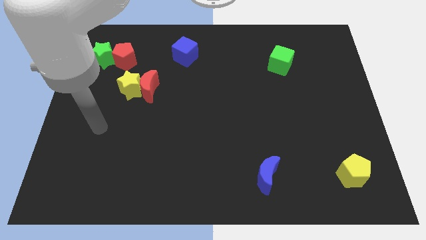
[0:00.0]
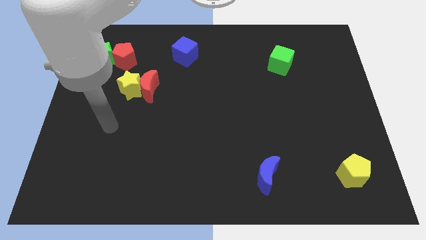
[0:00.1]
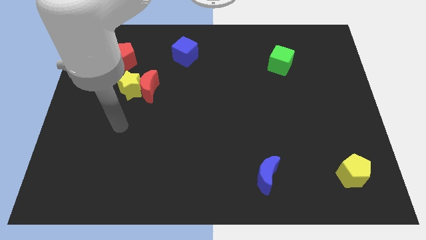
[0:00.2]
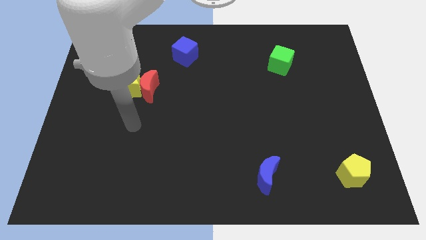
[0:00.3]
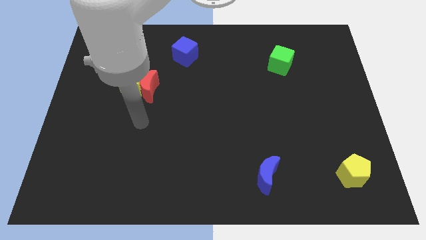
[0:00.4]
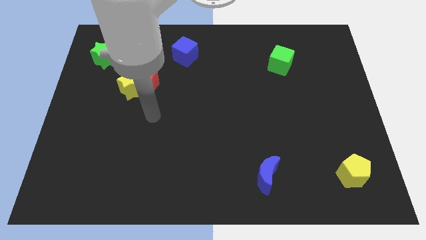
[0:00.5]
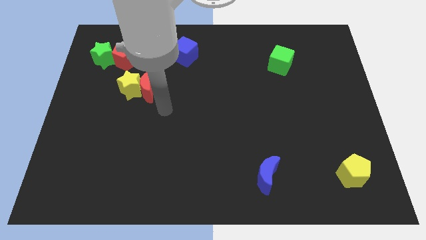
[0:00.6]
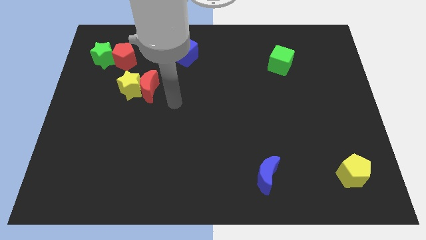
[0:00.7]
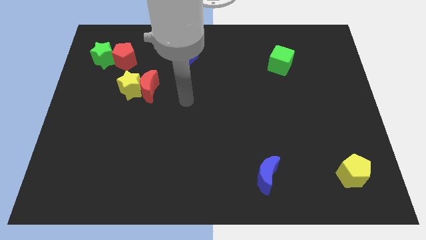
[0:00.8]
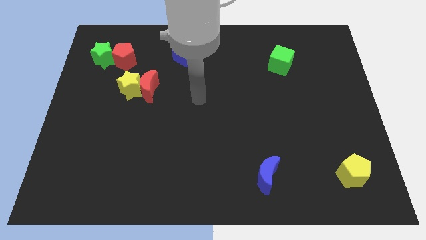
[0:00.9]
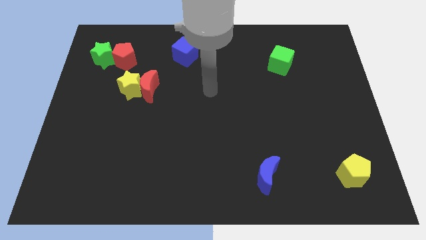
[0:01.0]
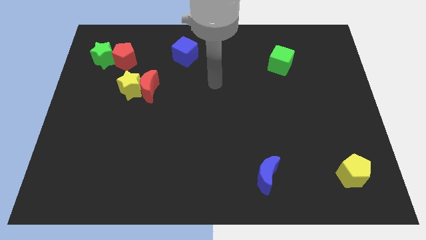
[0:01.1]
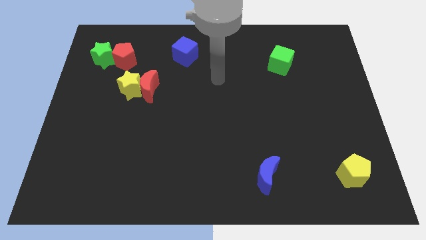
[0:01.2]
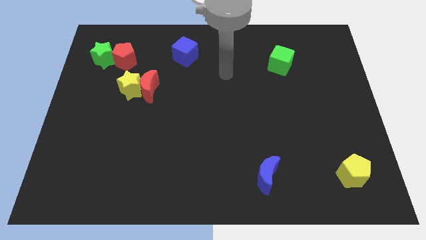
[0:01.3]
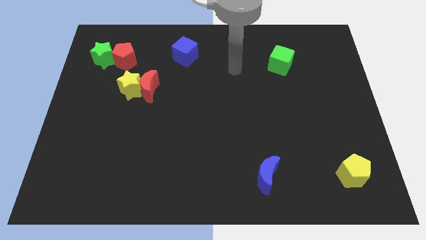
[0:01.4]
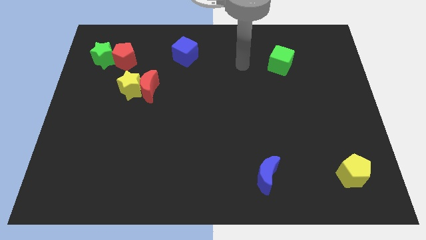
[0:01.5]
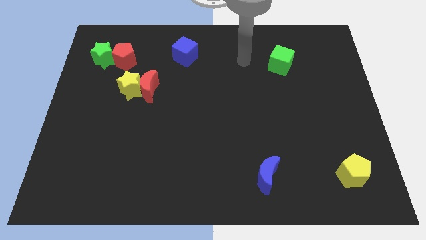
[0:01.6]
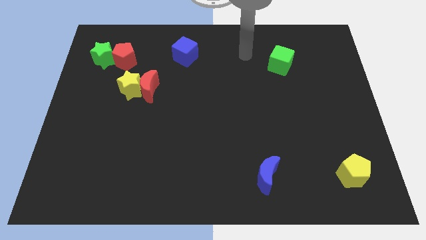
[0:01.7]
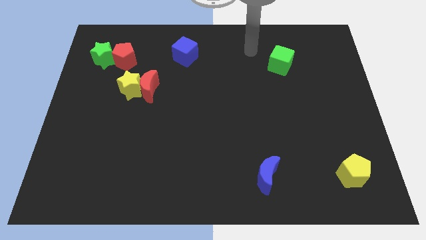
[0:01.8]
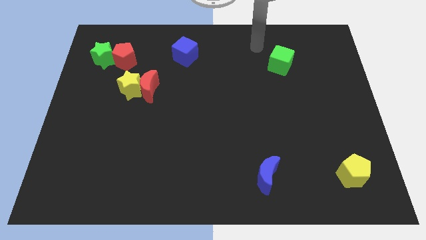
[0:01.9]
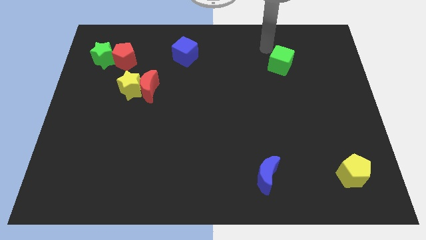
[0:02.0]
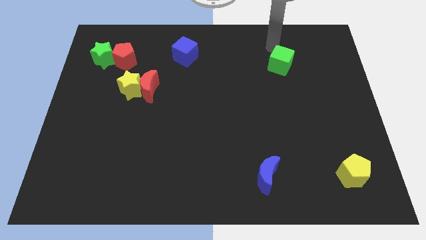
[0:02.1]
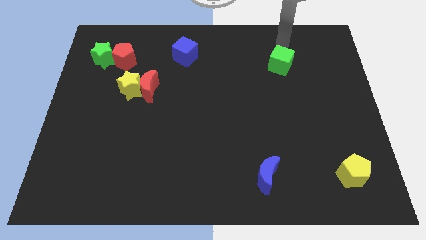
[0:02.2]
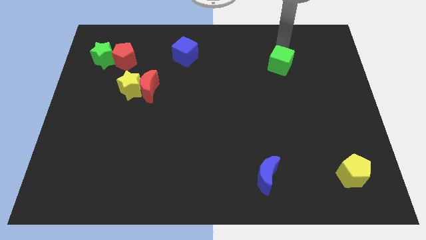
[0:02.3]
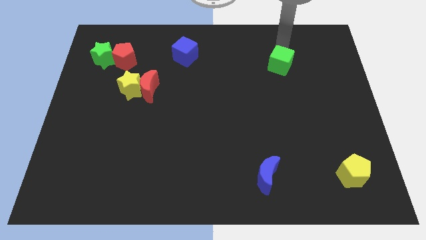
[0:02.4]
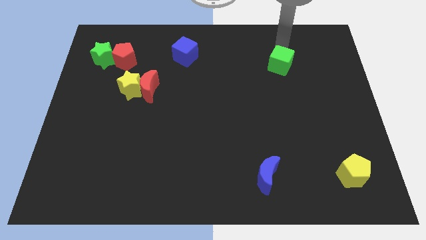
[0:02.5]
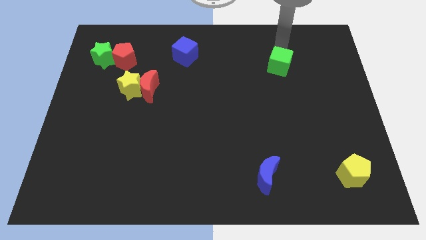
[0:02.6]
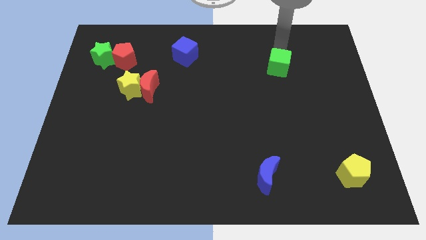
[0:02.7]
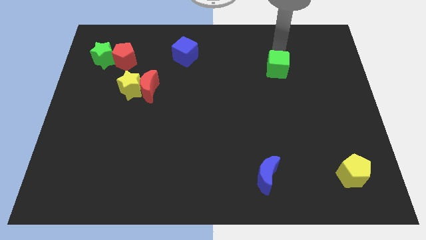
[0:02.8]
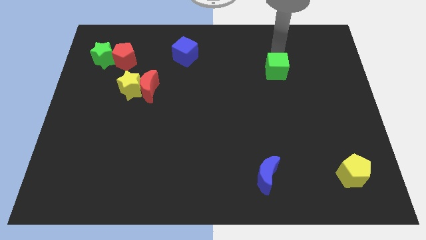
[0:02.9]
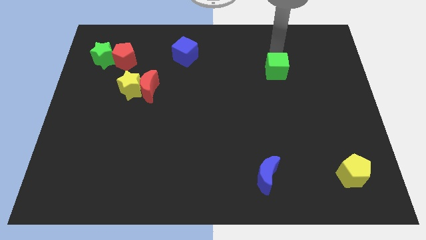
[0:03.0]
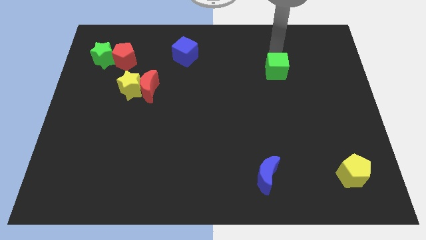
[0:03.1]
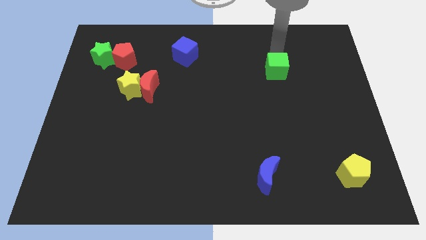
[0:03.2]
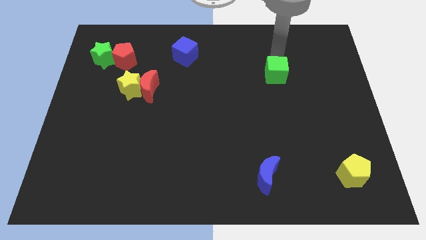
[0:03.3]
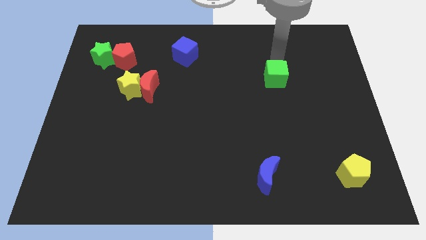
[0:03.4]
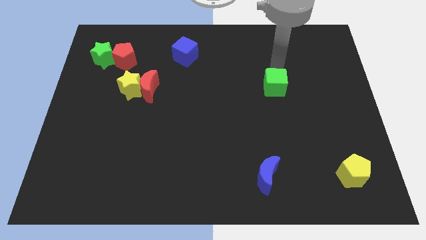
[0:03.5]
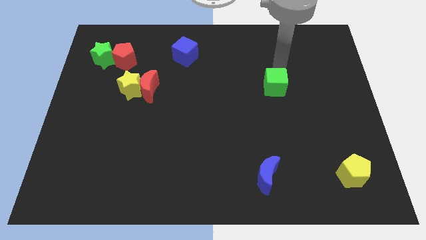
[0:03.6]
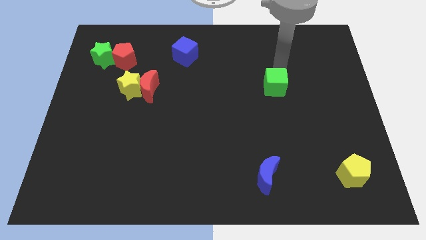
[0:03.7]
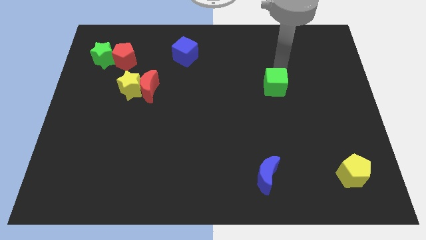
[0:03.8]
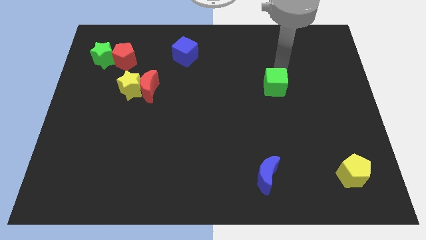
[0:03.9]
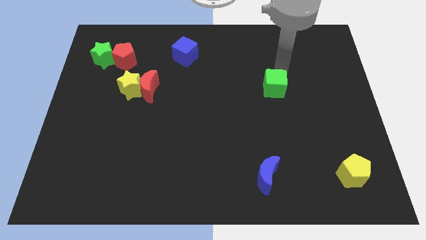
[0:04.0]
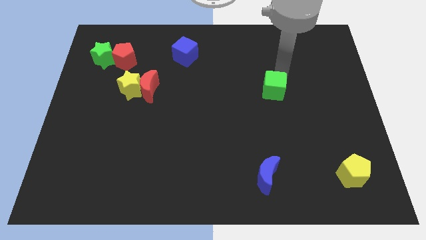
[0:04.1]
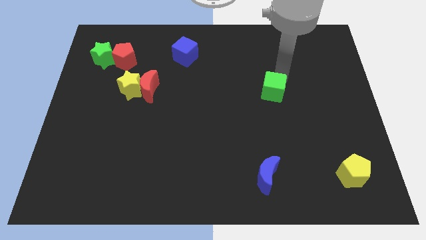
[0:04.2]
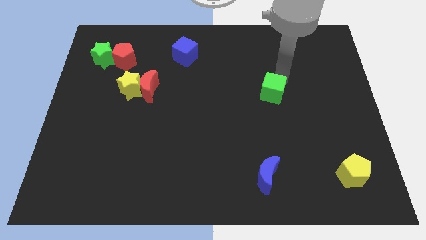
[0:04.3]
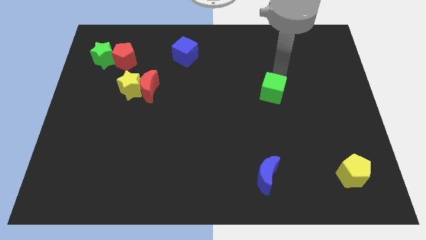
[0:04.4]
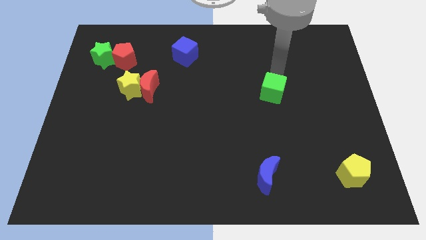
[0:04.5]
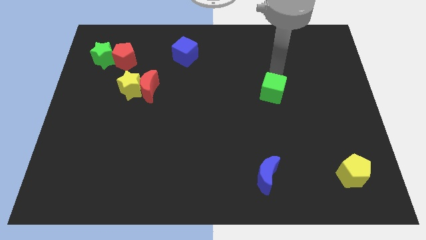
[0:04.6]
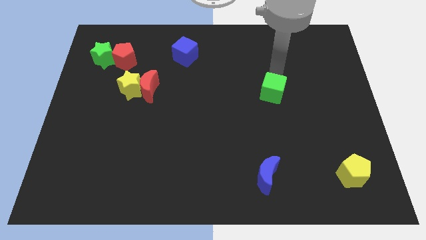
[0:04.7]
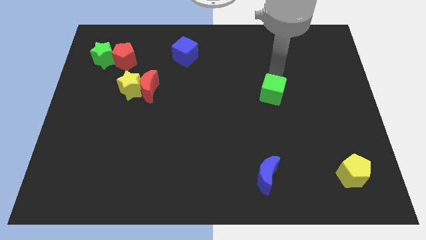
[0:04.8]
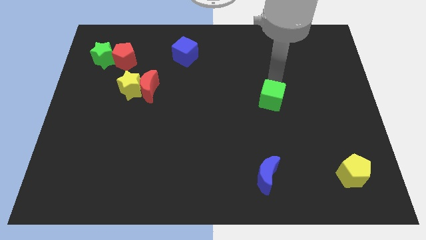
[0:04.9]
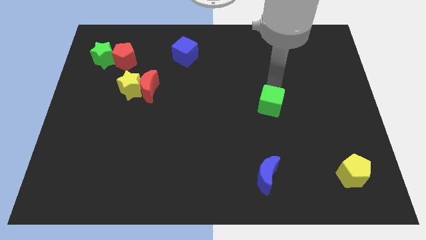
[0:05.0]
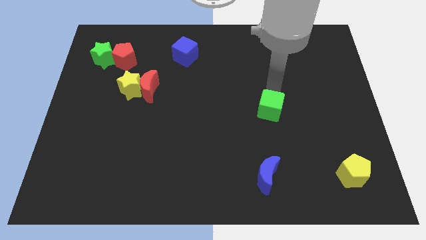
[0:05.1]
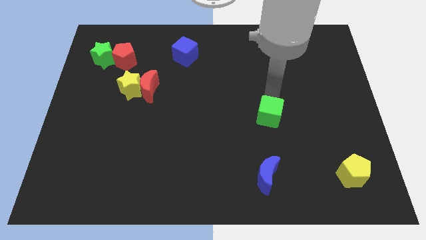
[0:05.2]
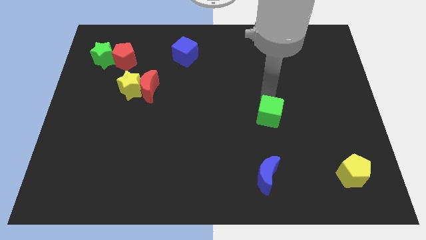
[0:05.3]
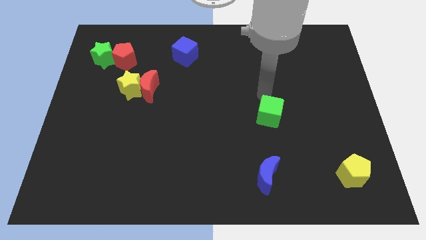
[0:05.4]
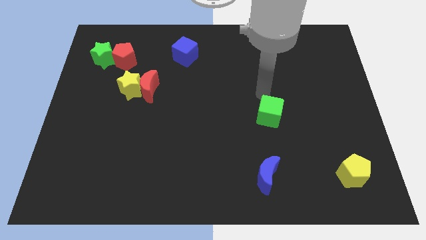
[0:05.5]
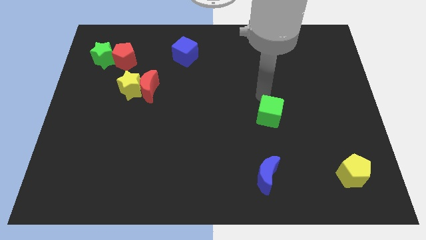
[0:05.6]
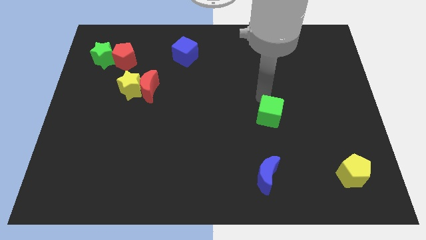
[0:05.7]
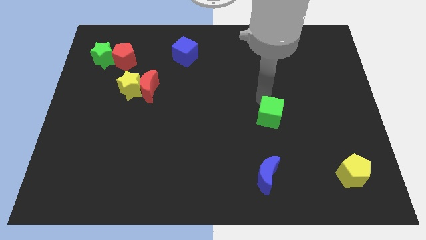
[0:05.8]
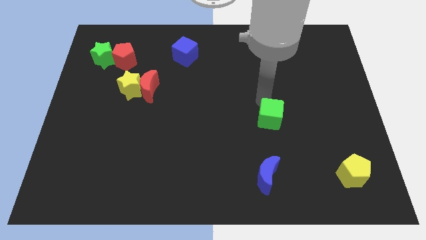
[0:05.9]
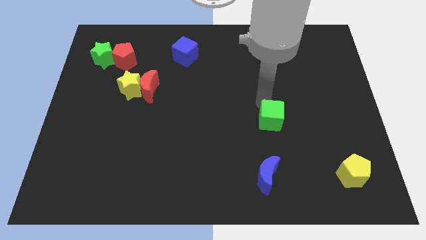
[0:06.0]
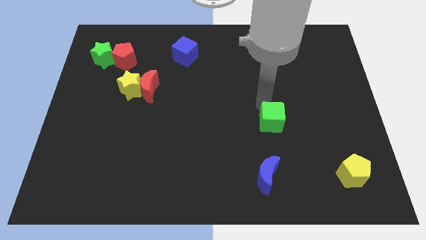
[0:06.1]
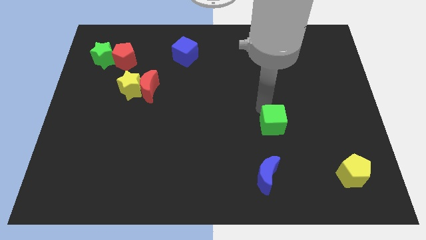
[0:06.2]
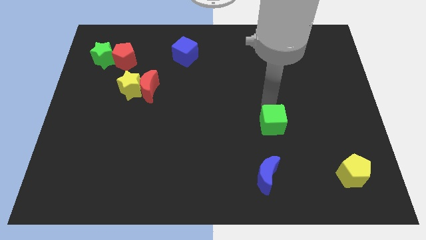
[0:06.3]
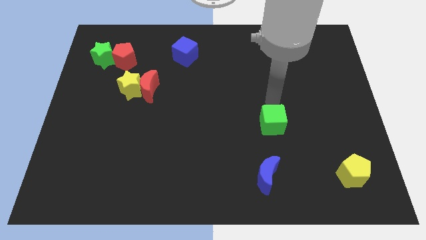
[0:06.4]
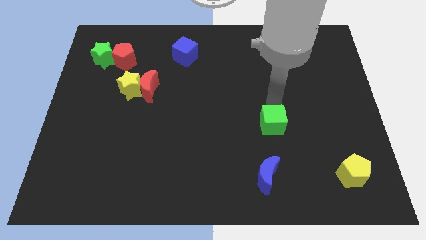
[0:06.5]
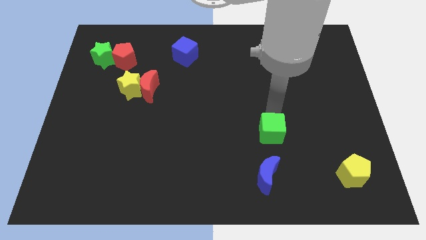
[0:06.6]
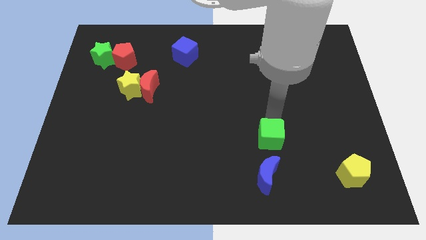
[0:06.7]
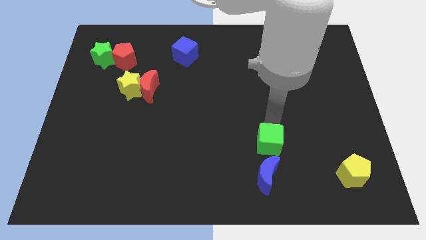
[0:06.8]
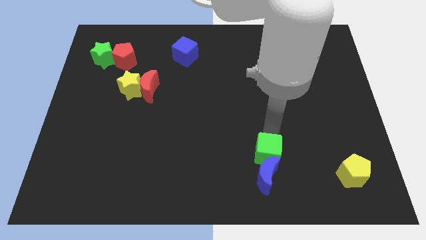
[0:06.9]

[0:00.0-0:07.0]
move the green cube to the blue moon
